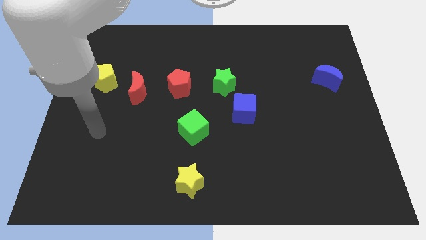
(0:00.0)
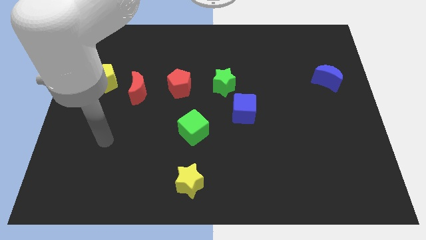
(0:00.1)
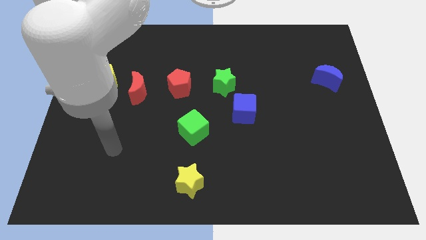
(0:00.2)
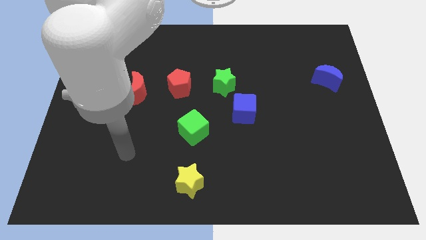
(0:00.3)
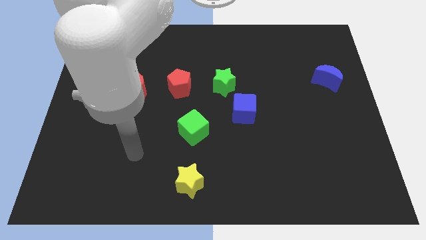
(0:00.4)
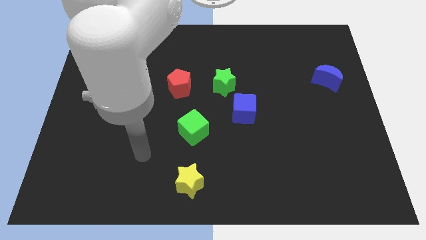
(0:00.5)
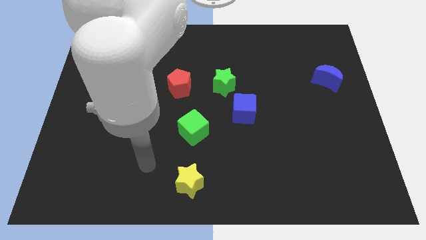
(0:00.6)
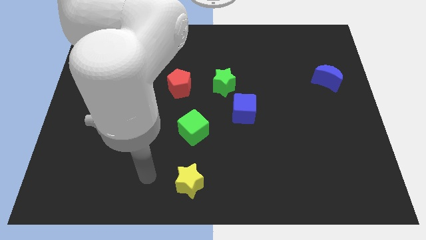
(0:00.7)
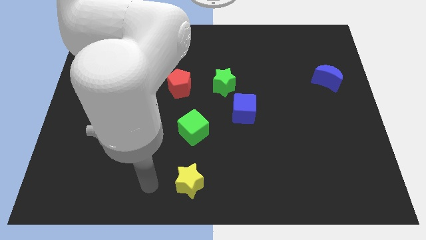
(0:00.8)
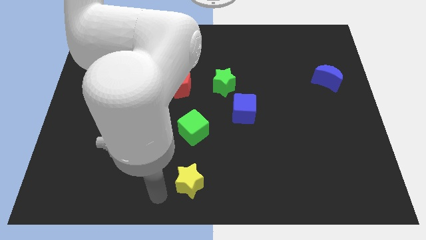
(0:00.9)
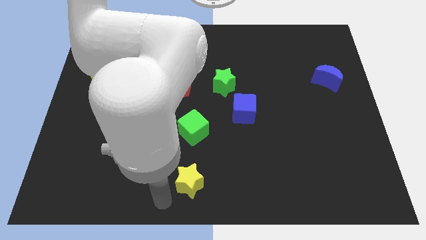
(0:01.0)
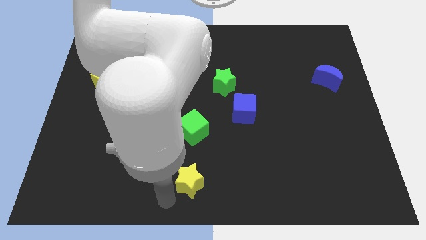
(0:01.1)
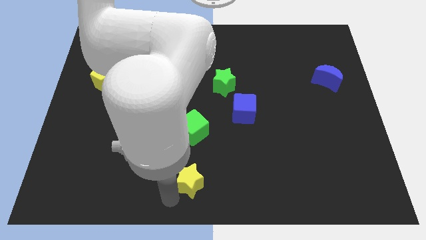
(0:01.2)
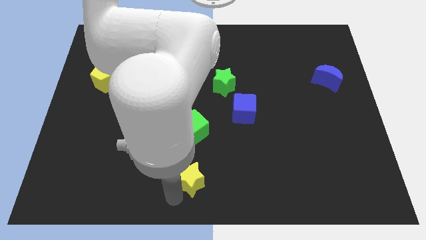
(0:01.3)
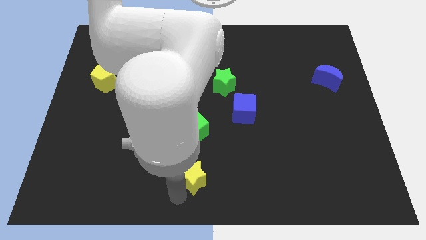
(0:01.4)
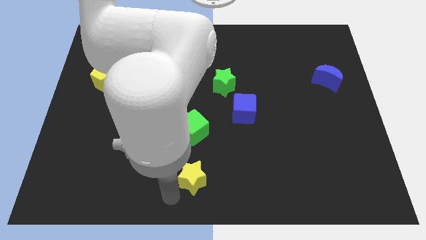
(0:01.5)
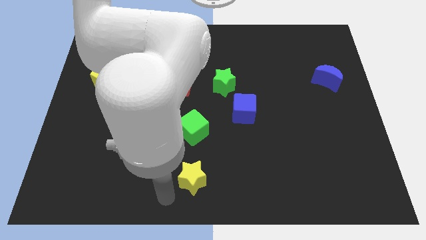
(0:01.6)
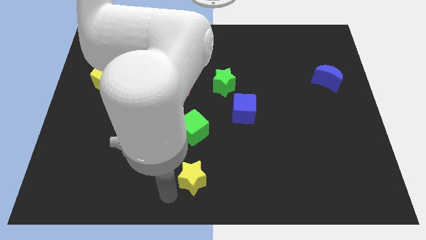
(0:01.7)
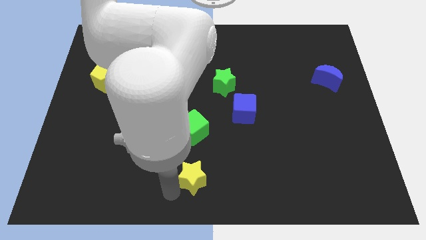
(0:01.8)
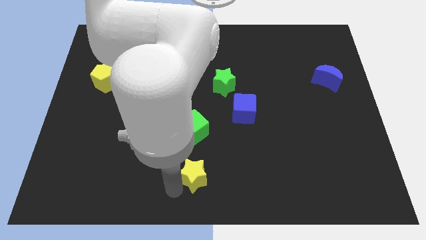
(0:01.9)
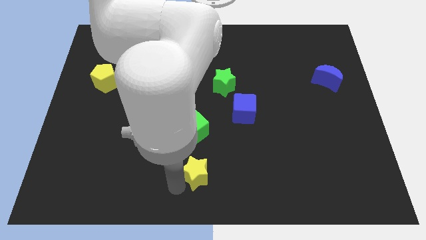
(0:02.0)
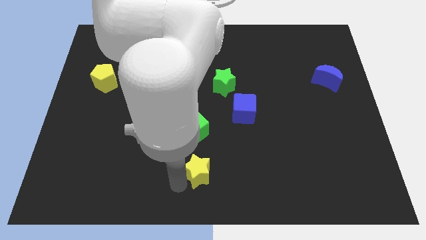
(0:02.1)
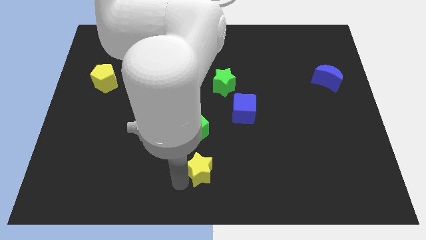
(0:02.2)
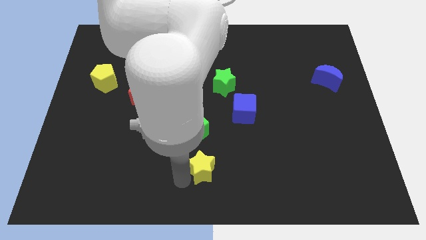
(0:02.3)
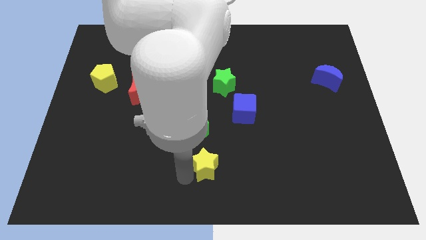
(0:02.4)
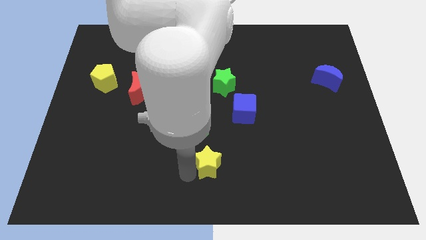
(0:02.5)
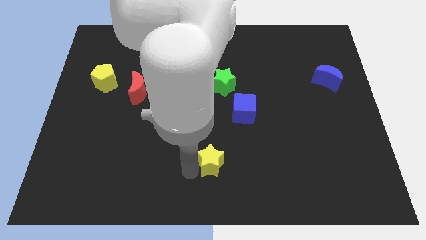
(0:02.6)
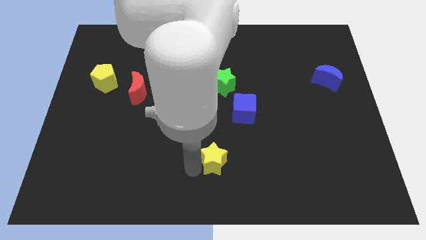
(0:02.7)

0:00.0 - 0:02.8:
slightly slide the yellow star up and then to the right

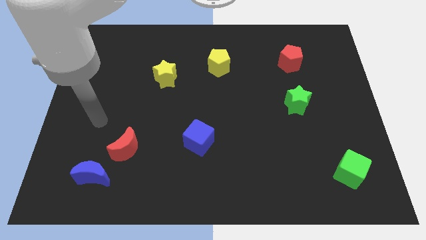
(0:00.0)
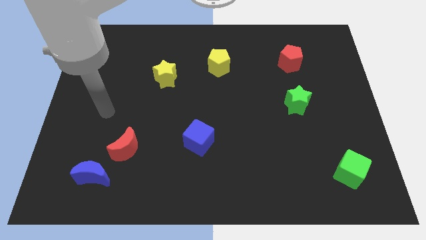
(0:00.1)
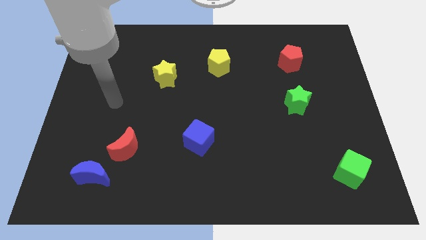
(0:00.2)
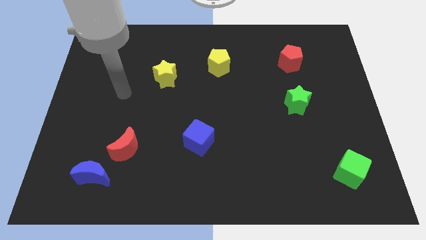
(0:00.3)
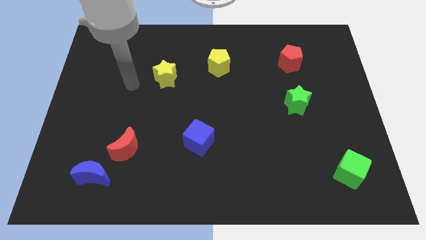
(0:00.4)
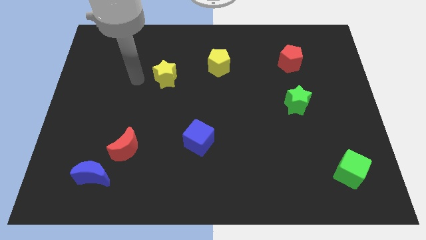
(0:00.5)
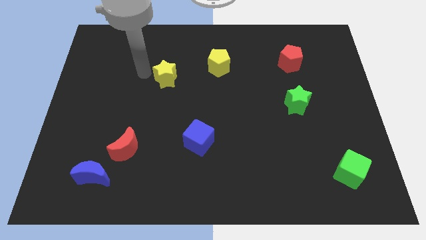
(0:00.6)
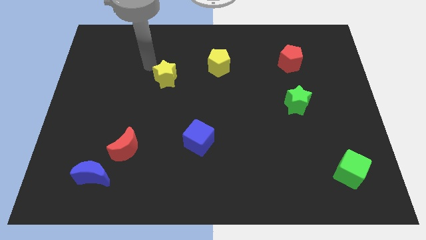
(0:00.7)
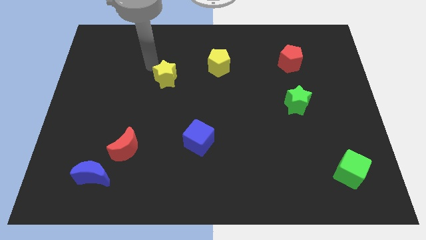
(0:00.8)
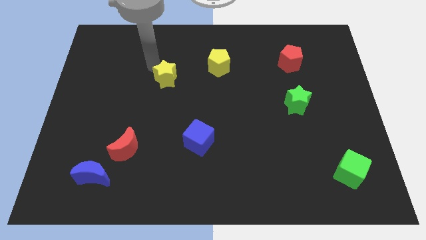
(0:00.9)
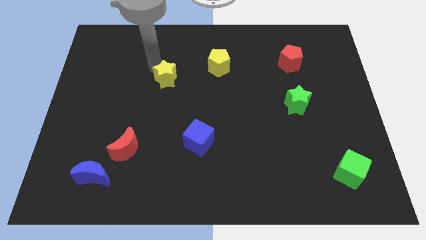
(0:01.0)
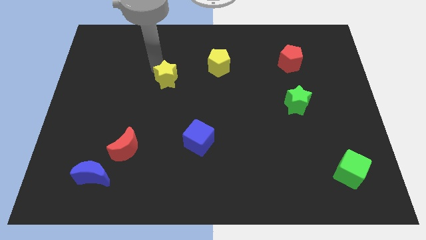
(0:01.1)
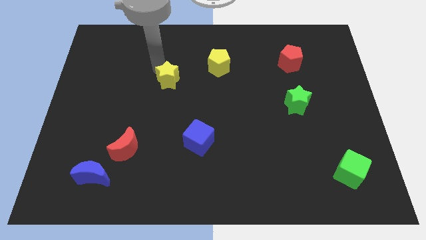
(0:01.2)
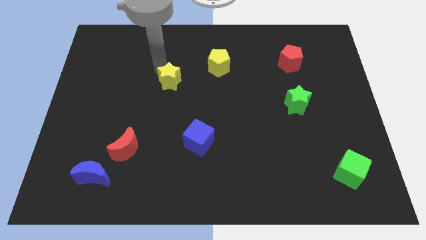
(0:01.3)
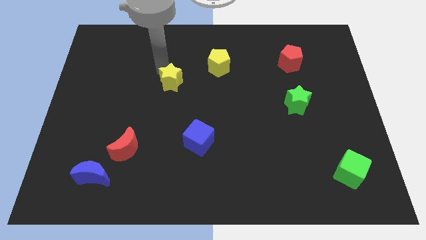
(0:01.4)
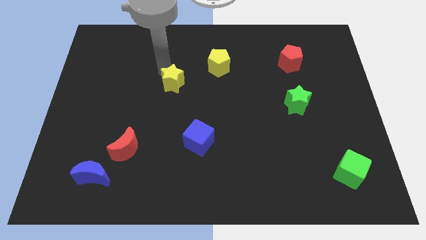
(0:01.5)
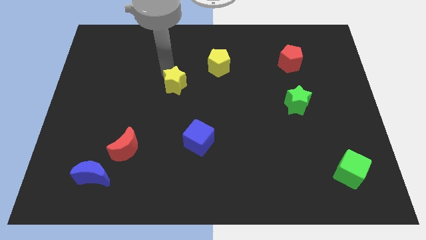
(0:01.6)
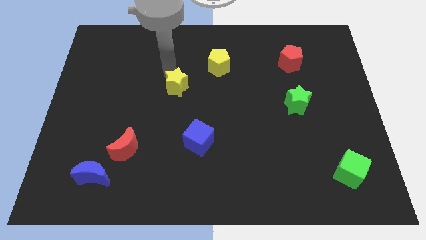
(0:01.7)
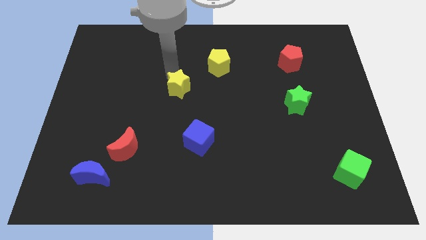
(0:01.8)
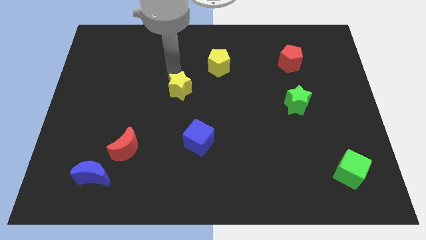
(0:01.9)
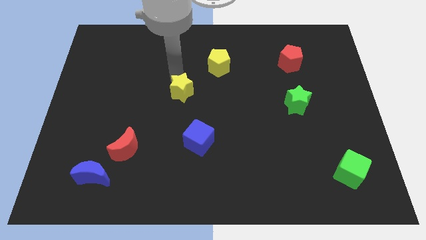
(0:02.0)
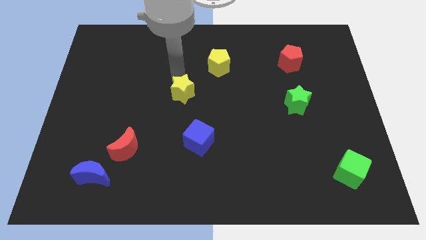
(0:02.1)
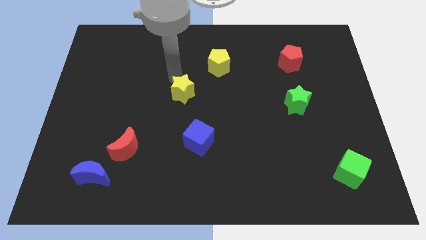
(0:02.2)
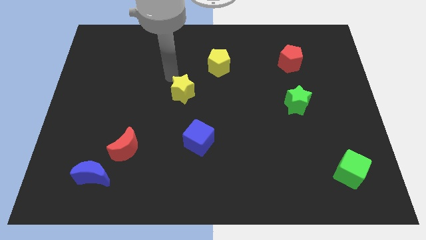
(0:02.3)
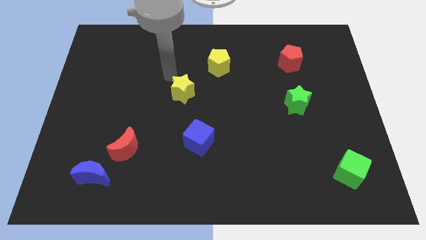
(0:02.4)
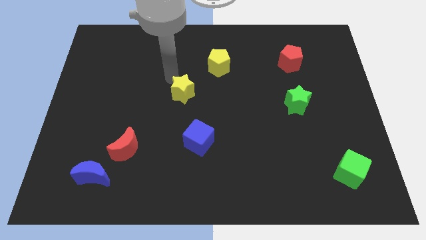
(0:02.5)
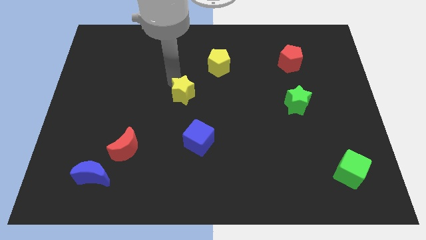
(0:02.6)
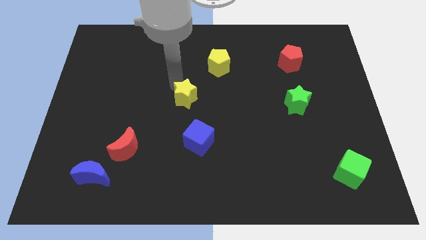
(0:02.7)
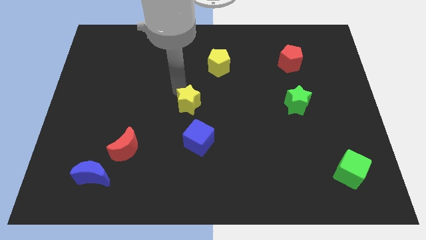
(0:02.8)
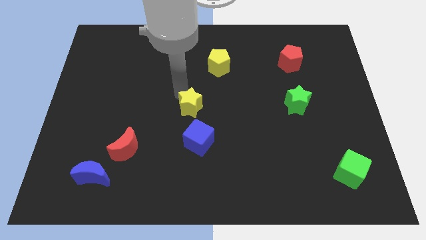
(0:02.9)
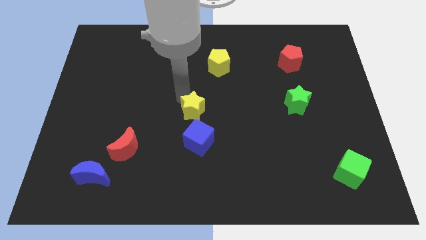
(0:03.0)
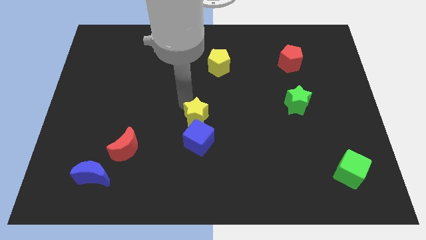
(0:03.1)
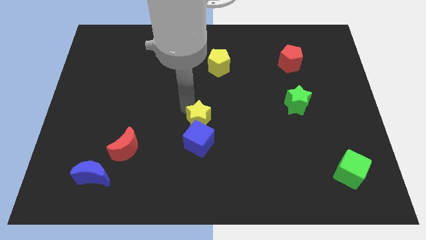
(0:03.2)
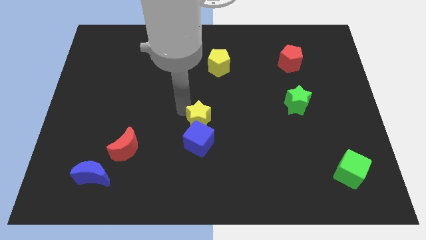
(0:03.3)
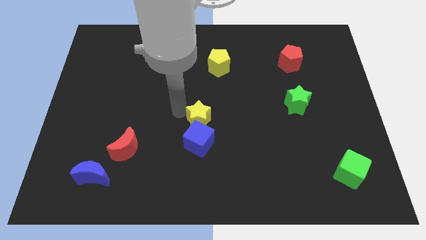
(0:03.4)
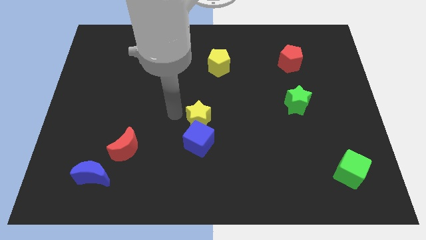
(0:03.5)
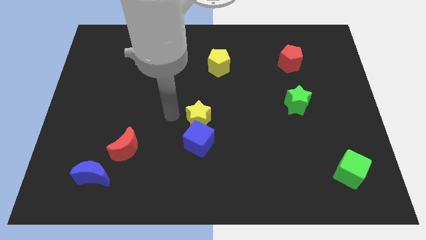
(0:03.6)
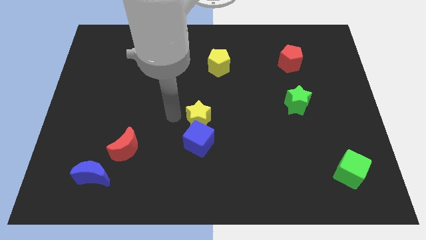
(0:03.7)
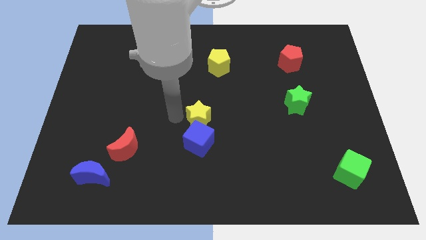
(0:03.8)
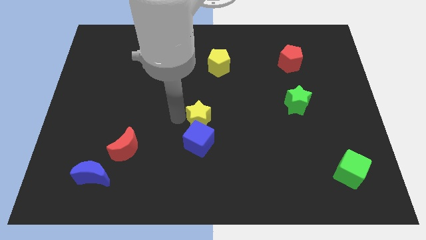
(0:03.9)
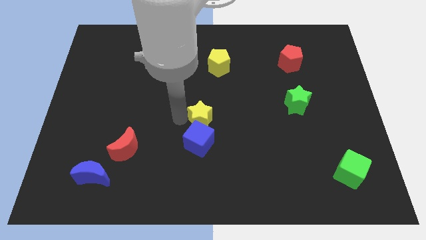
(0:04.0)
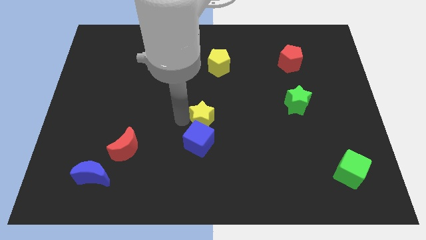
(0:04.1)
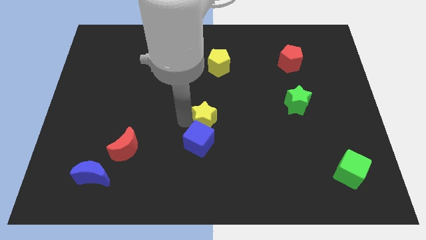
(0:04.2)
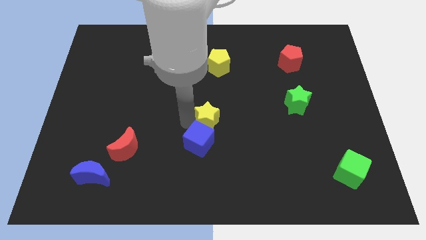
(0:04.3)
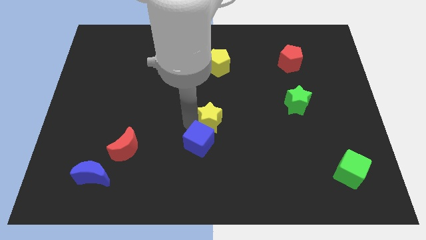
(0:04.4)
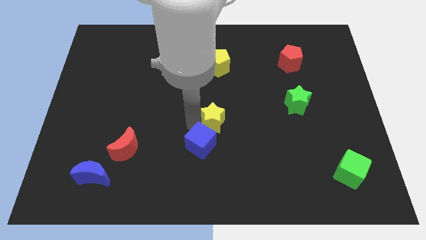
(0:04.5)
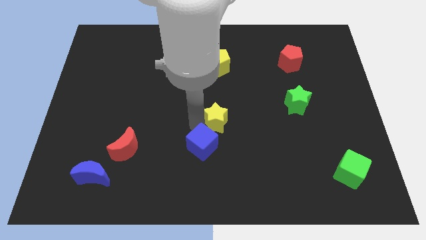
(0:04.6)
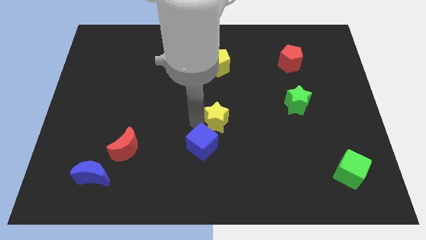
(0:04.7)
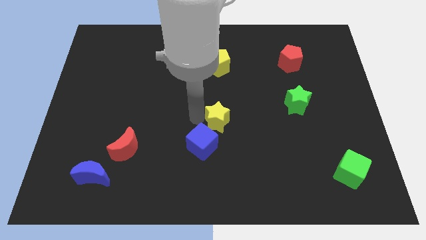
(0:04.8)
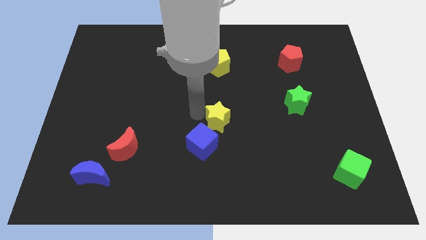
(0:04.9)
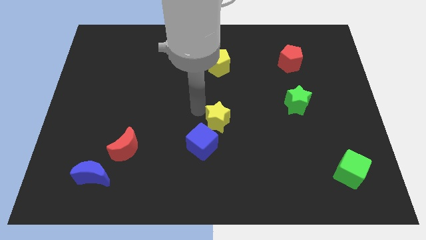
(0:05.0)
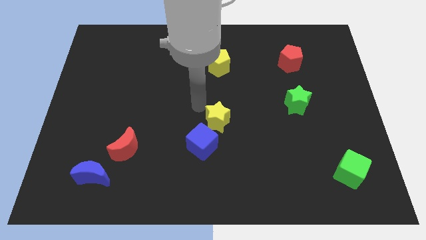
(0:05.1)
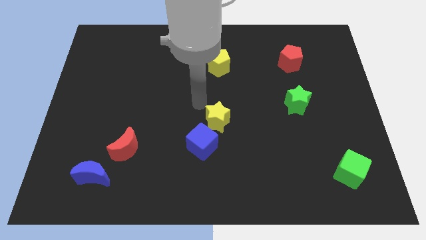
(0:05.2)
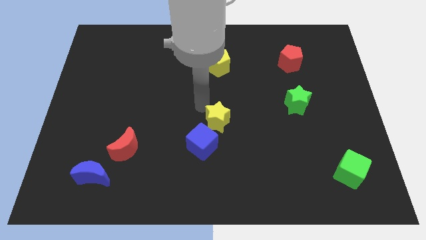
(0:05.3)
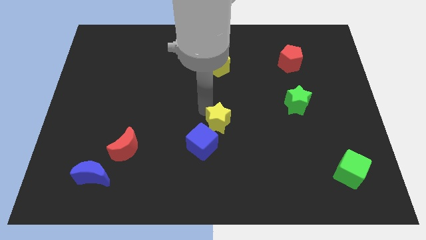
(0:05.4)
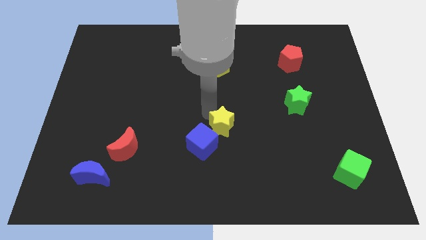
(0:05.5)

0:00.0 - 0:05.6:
slide the yellow star down and to the right
